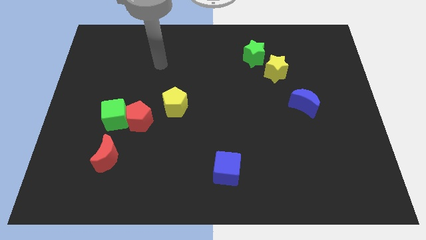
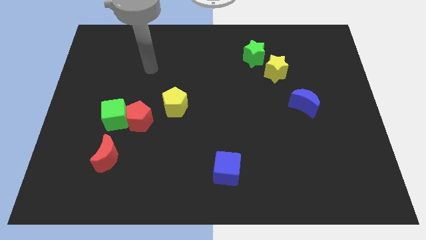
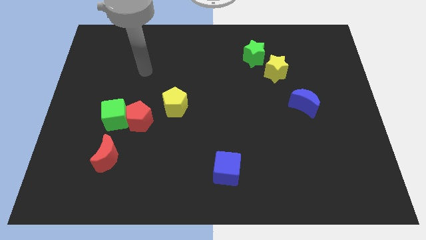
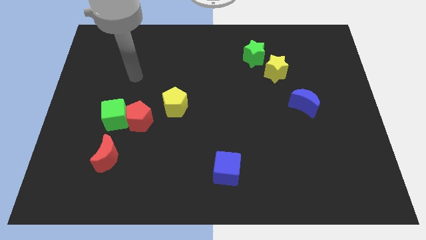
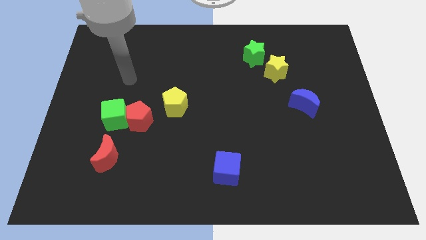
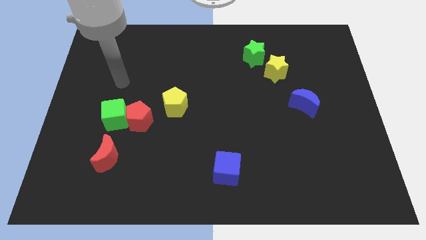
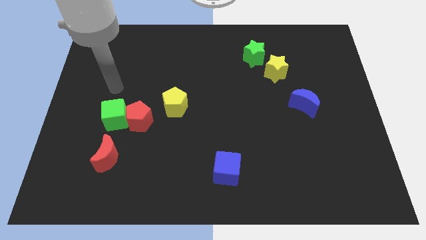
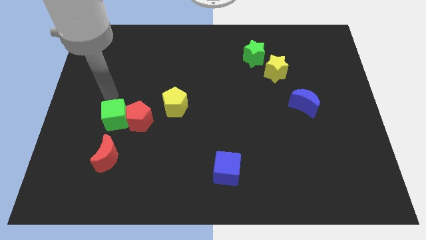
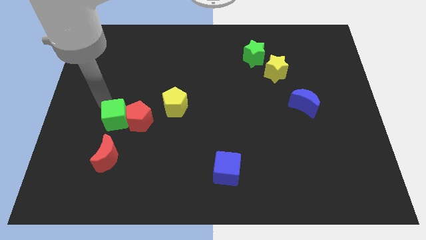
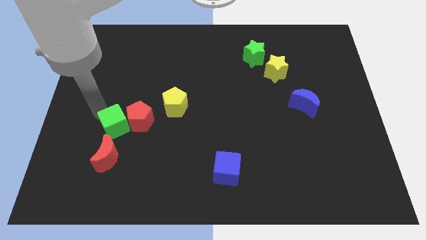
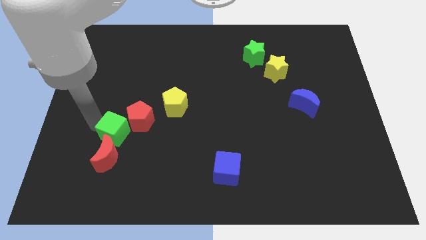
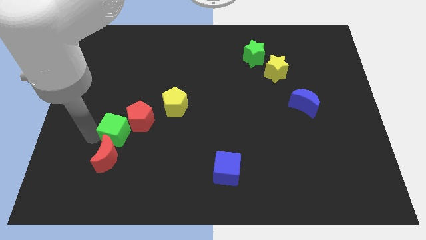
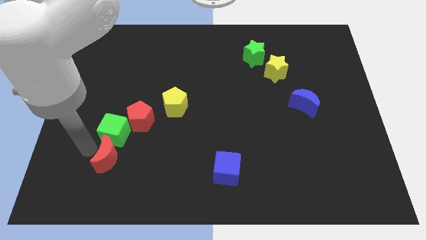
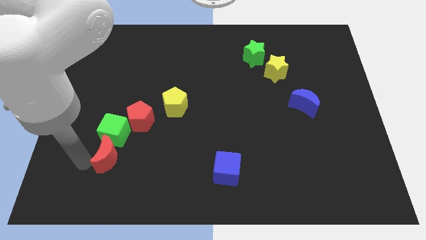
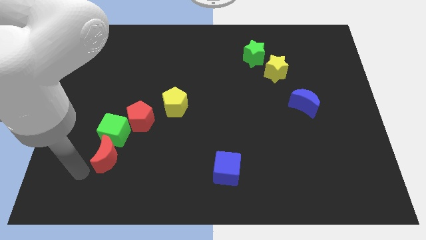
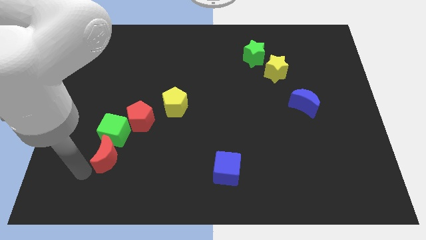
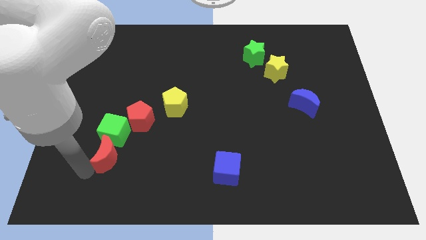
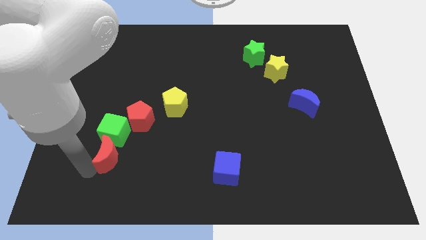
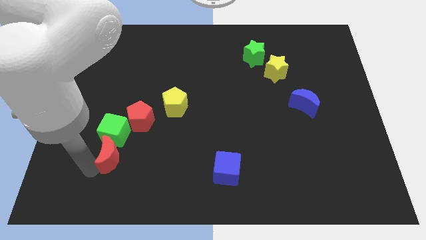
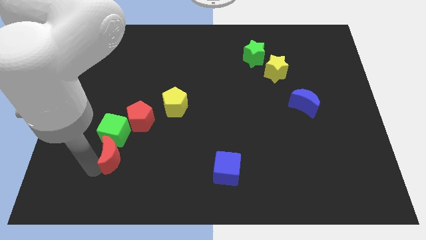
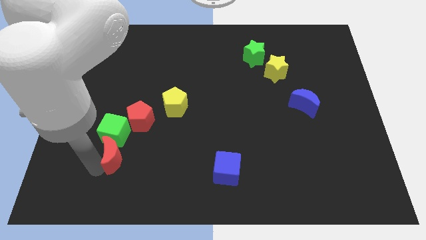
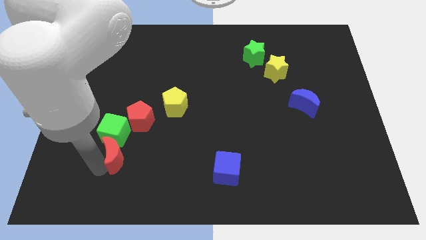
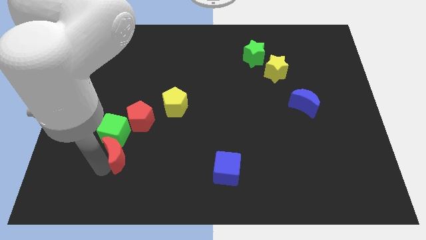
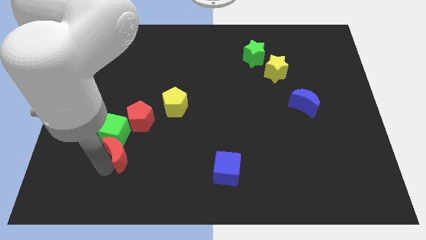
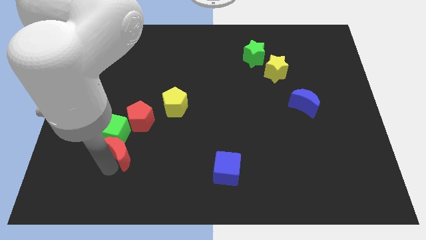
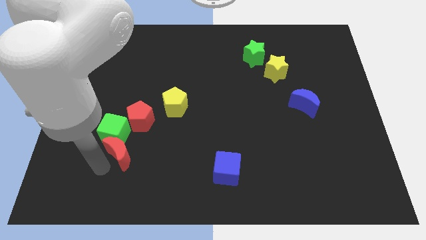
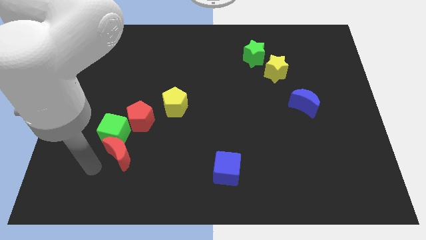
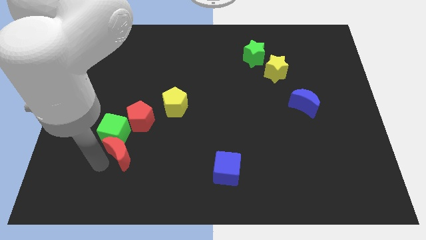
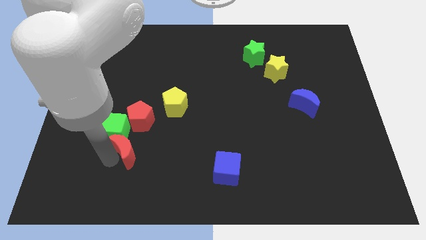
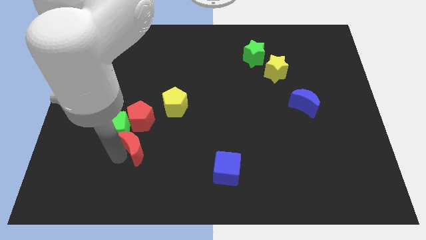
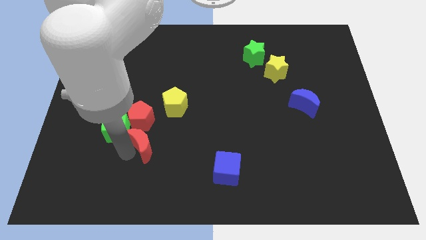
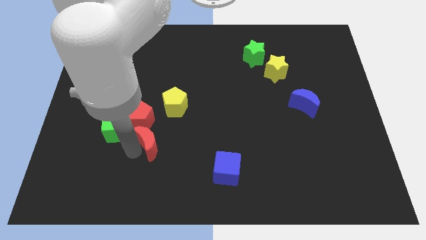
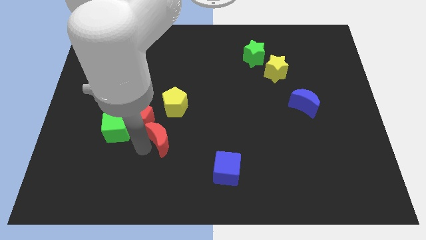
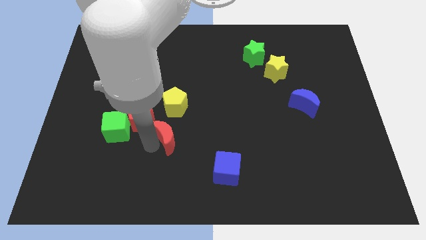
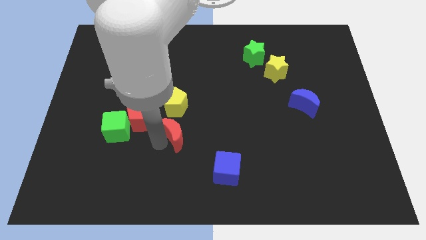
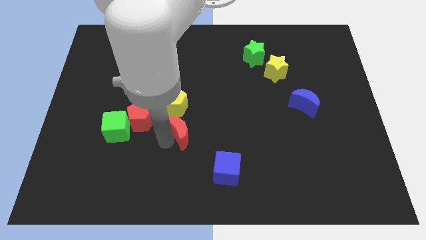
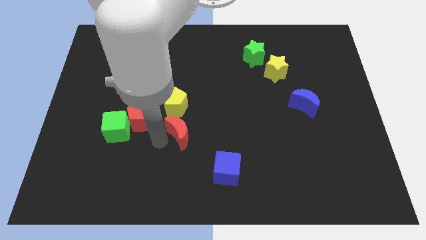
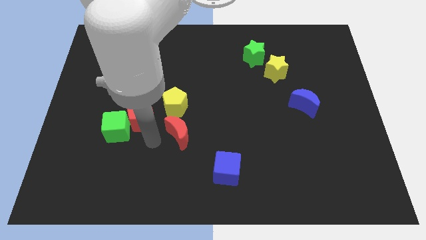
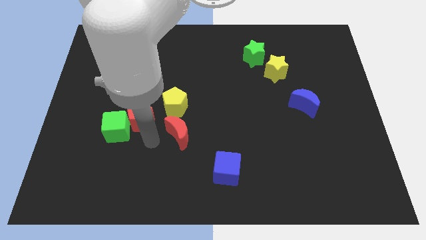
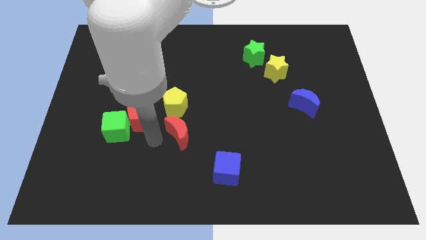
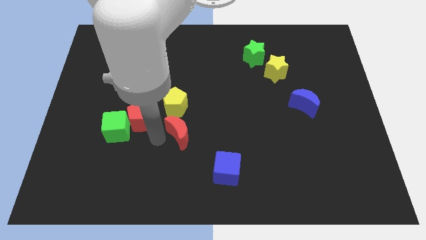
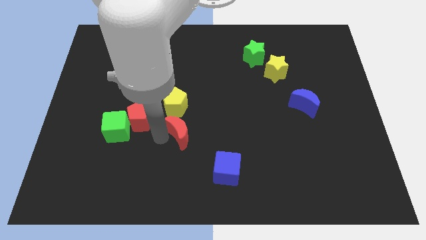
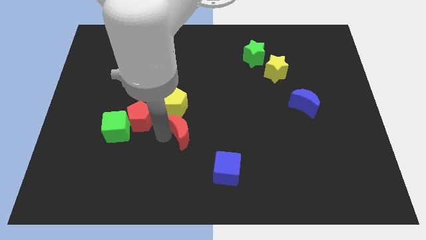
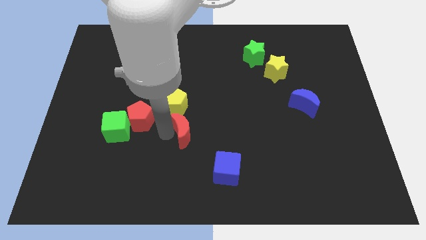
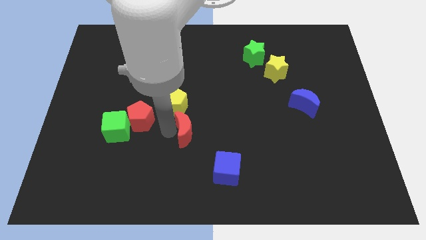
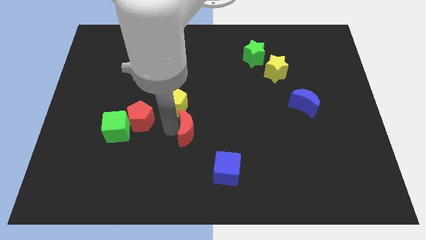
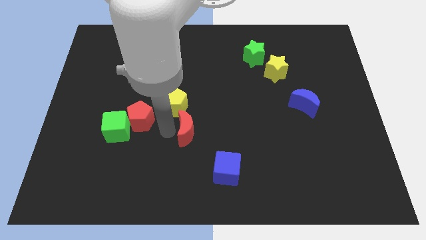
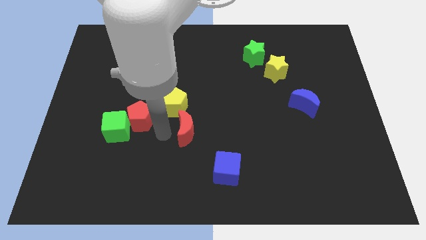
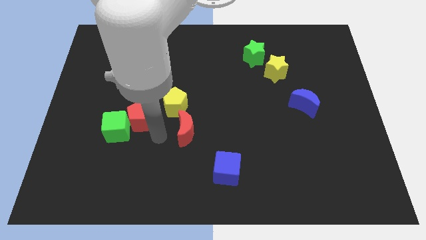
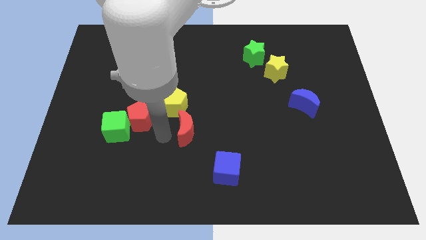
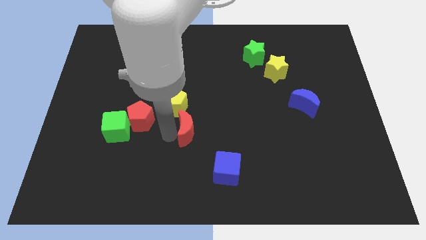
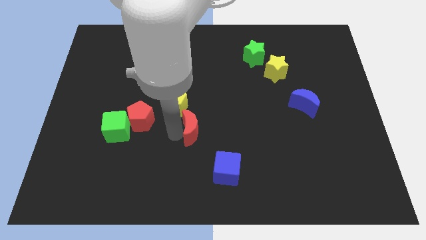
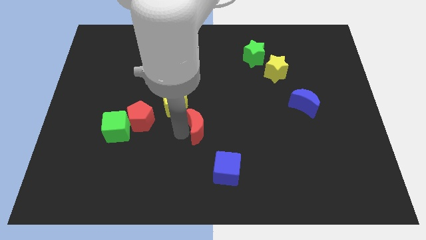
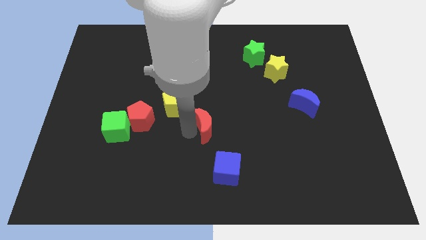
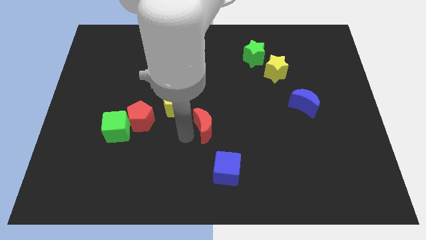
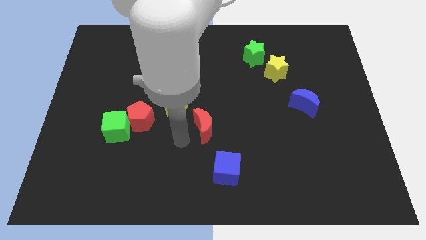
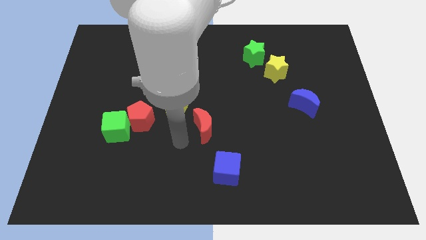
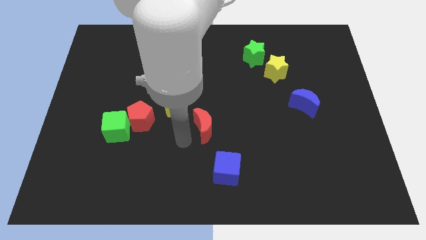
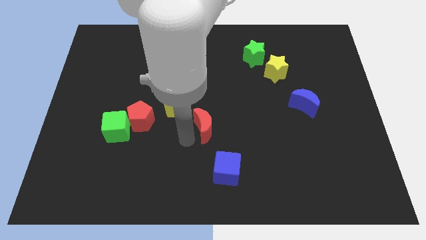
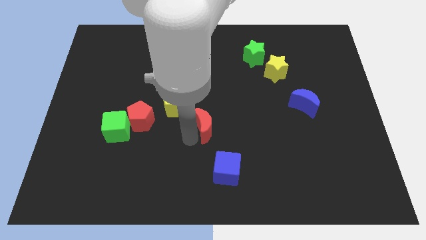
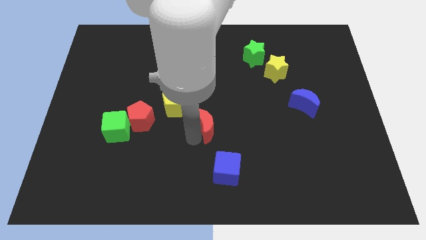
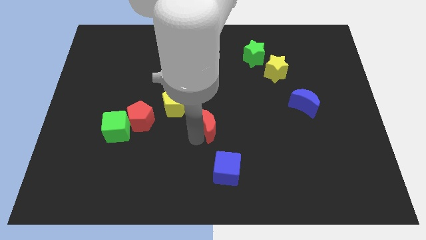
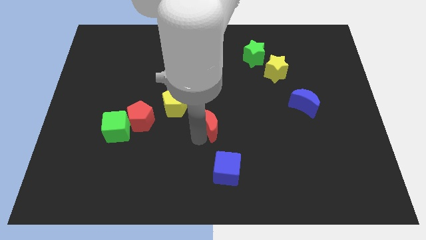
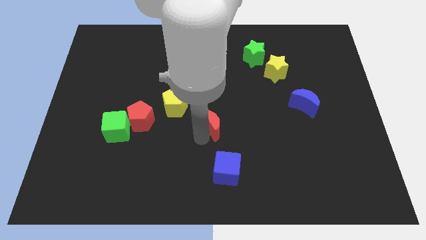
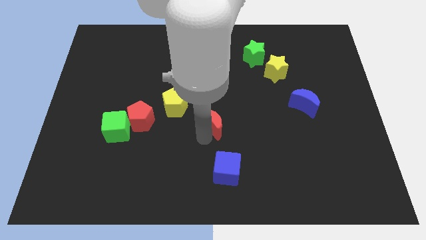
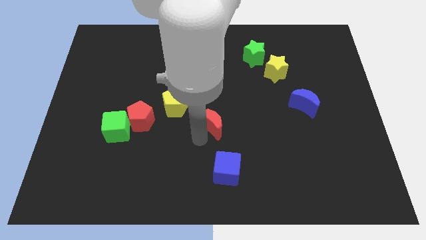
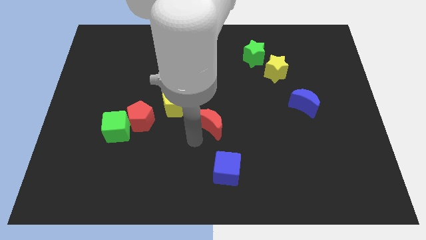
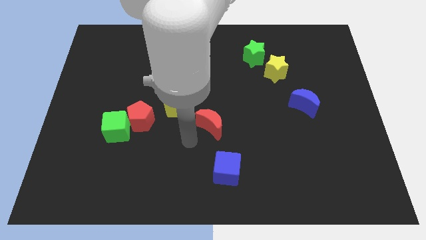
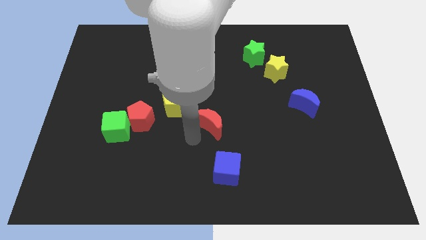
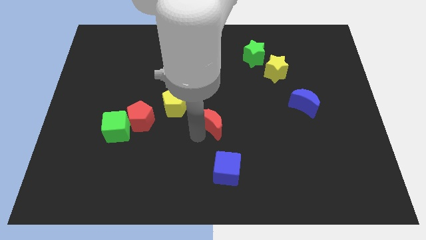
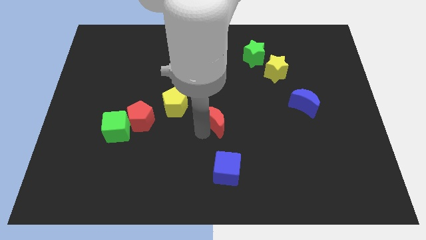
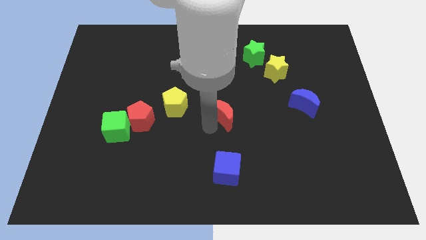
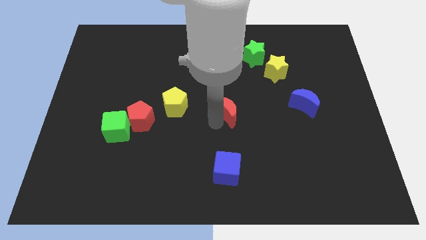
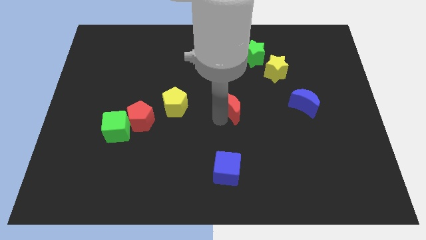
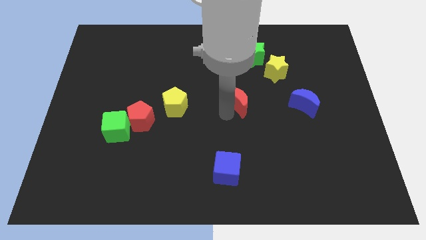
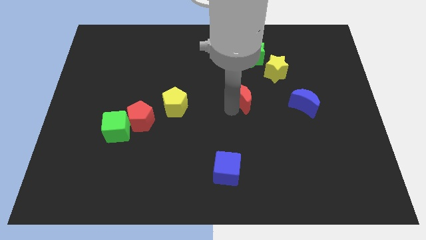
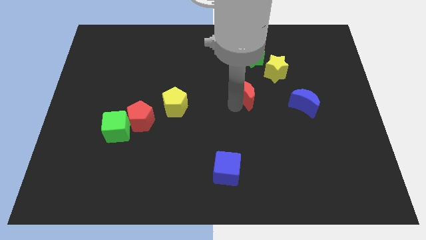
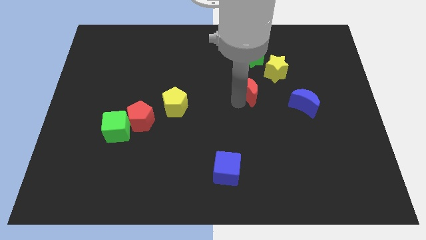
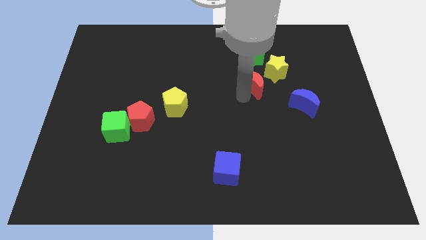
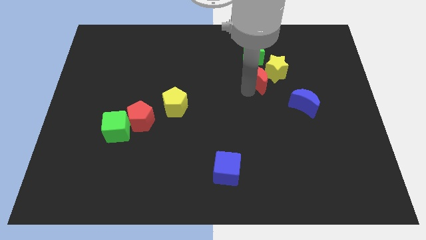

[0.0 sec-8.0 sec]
put the red moon close to the yellow star
